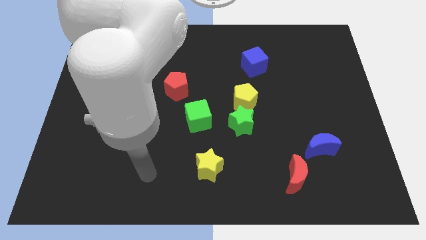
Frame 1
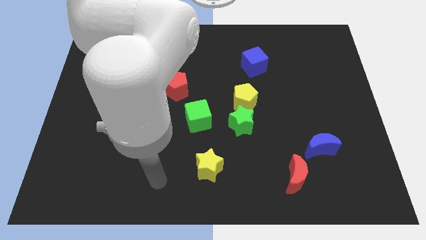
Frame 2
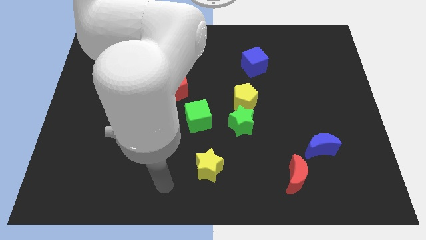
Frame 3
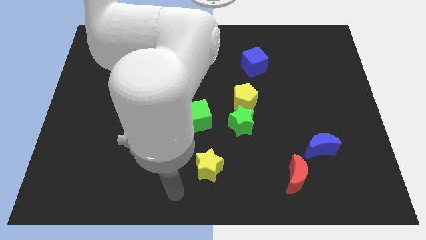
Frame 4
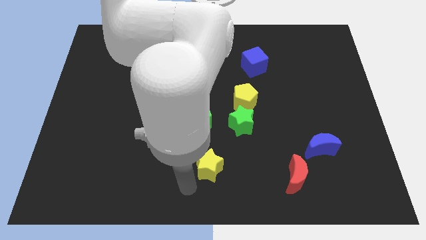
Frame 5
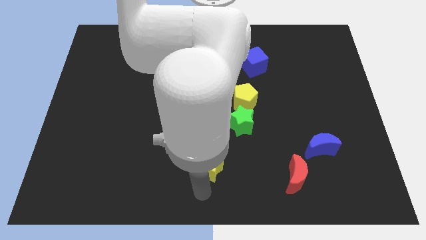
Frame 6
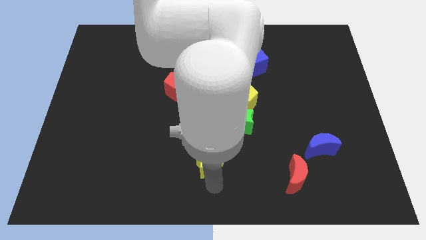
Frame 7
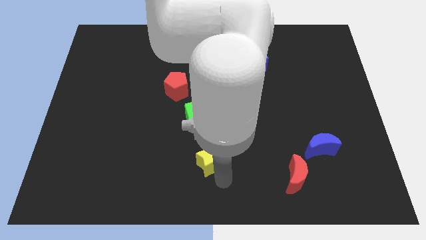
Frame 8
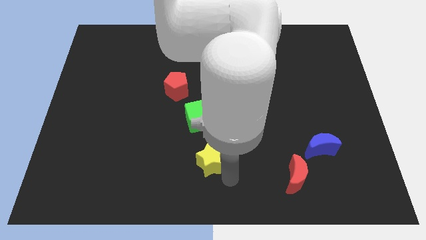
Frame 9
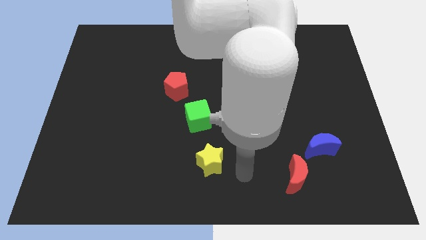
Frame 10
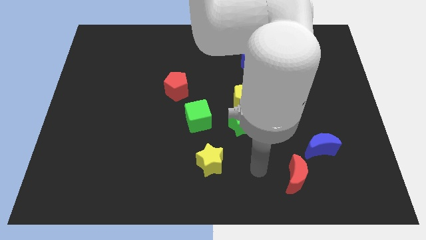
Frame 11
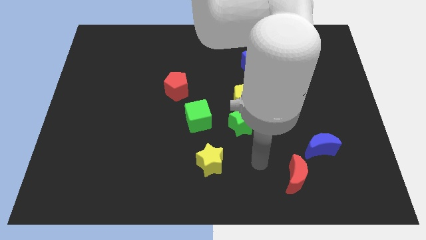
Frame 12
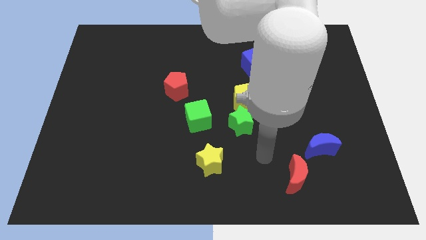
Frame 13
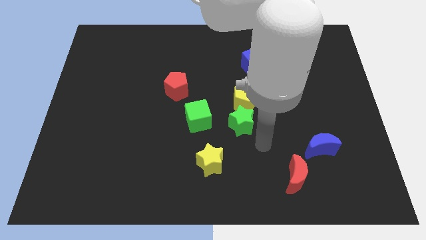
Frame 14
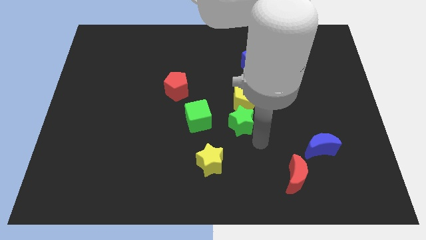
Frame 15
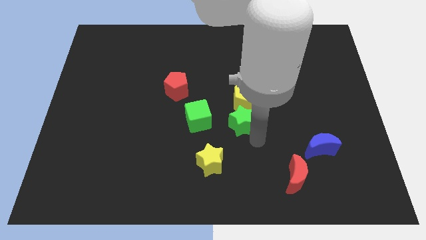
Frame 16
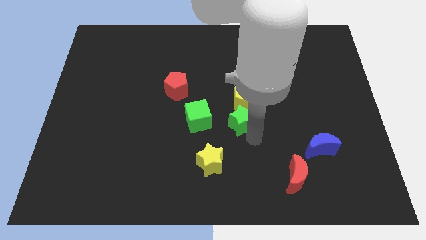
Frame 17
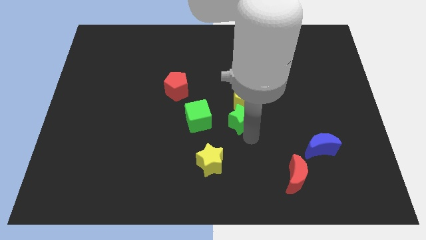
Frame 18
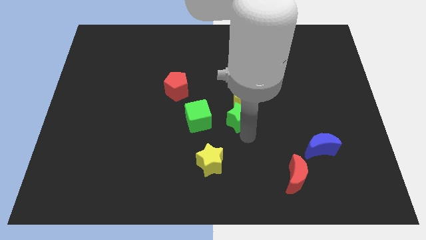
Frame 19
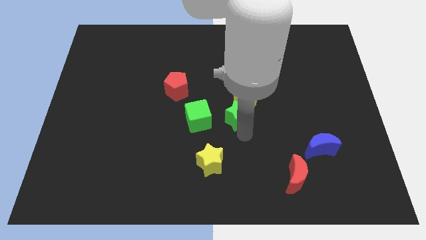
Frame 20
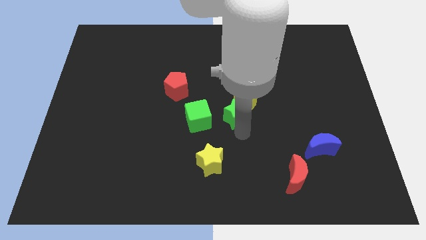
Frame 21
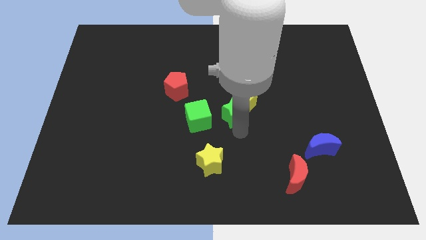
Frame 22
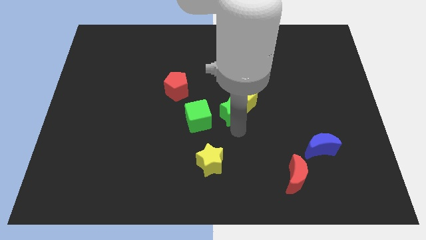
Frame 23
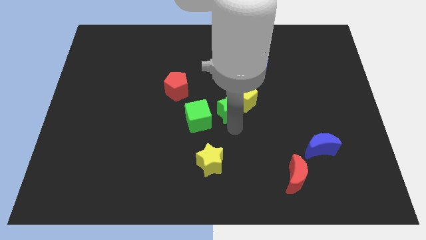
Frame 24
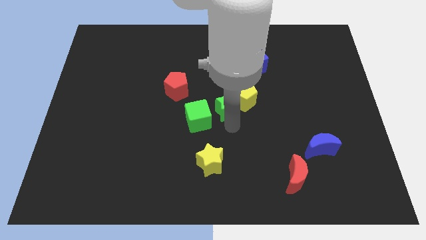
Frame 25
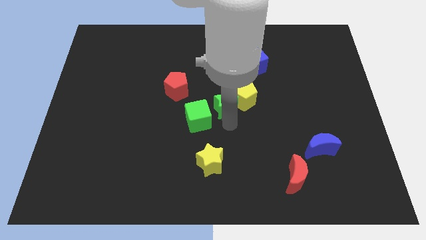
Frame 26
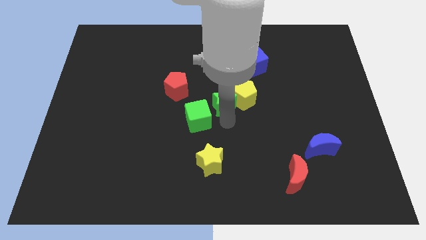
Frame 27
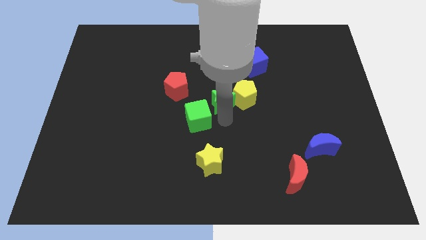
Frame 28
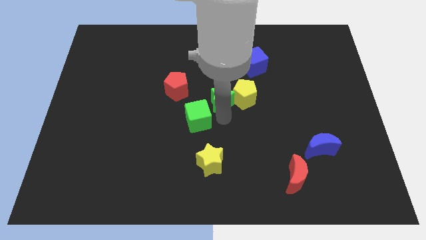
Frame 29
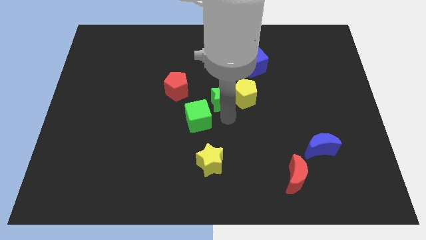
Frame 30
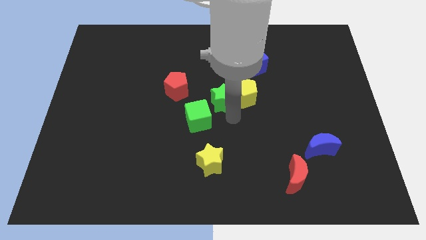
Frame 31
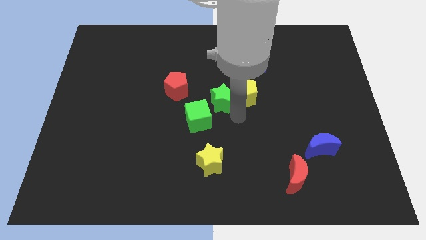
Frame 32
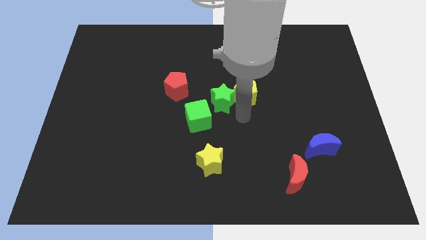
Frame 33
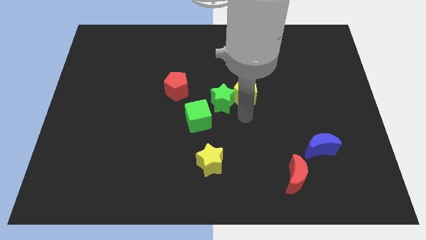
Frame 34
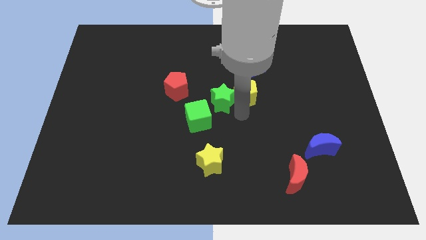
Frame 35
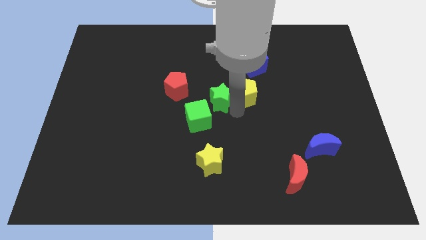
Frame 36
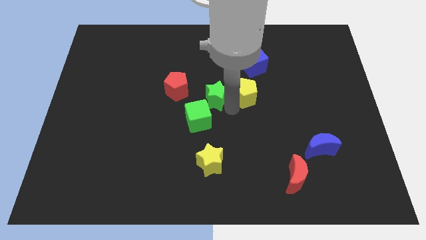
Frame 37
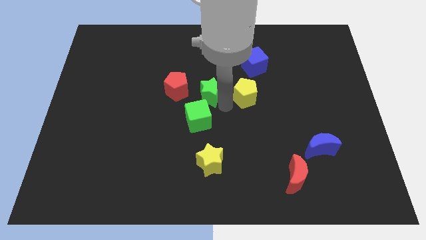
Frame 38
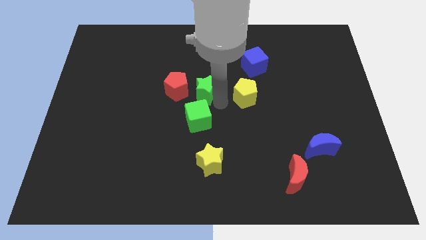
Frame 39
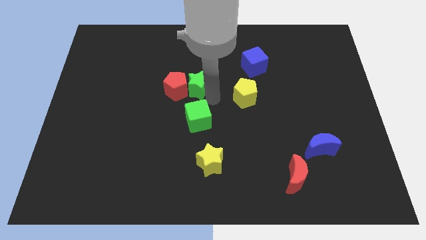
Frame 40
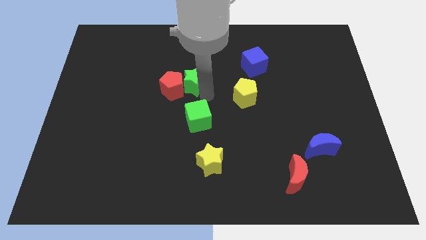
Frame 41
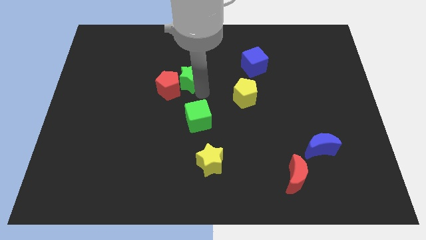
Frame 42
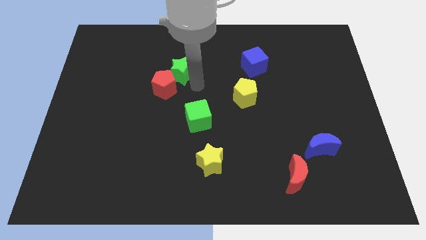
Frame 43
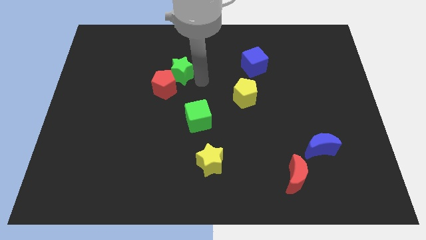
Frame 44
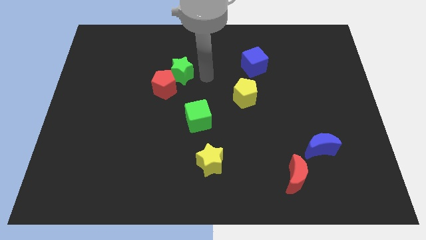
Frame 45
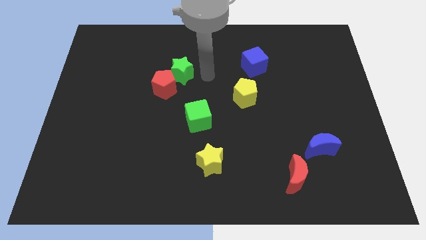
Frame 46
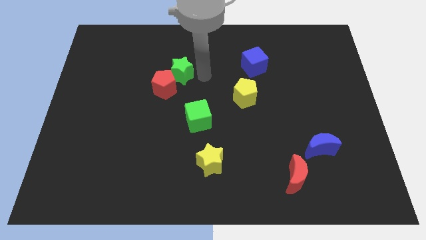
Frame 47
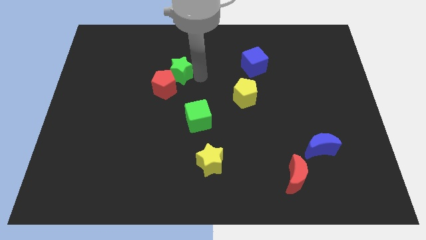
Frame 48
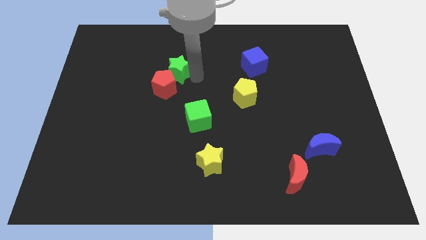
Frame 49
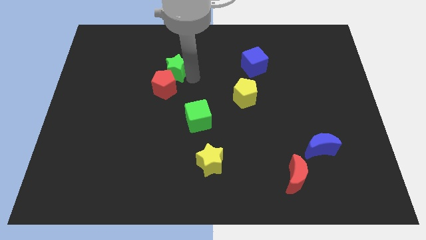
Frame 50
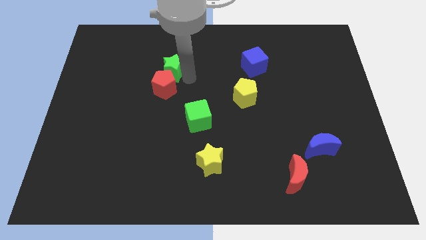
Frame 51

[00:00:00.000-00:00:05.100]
slide the green star to the top left side of the red pentagon

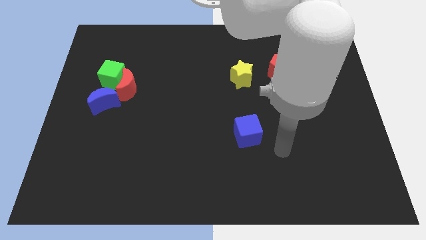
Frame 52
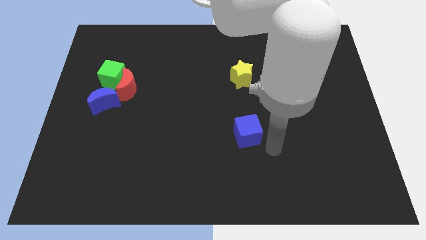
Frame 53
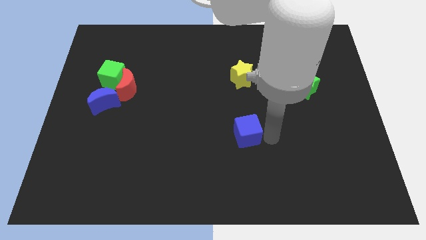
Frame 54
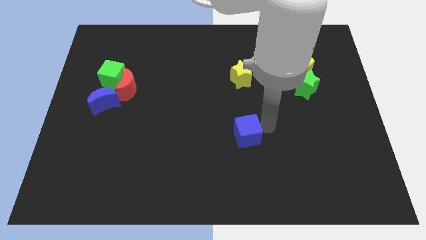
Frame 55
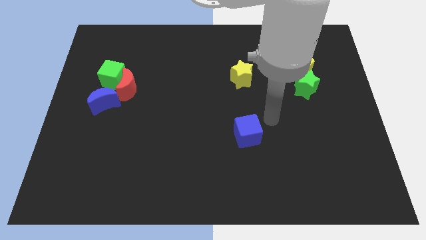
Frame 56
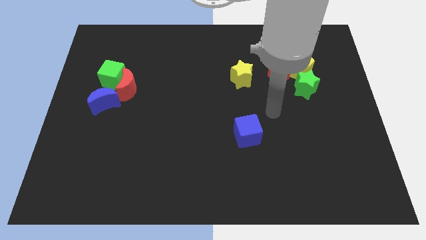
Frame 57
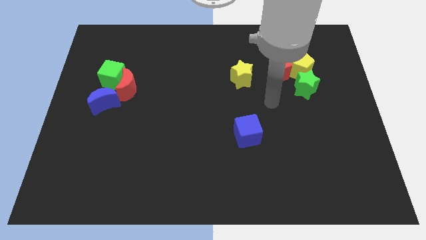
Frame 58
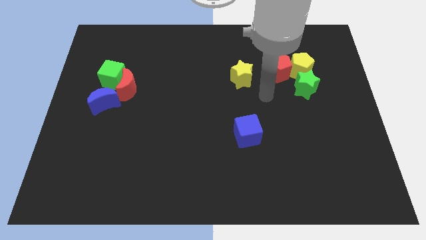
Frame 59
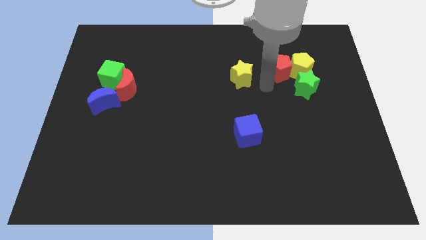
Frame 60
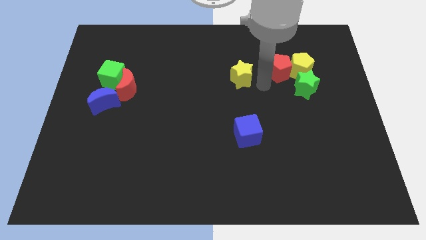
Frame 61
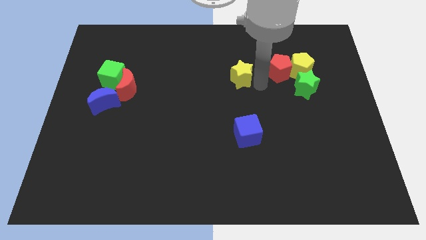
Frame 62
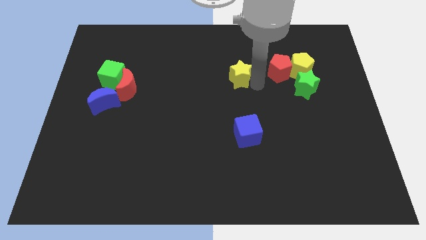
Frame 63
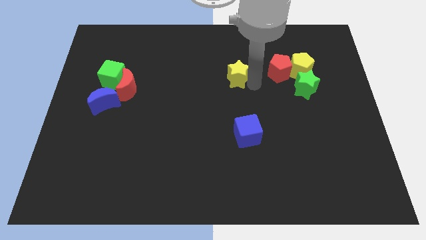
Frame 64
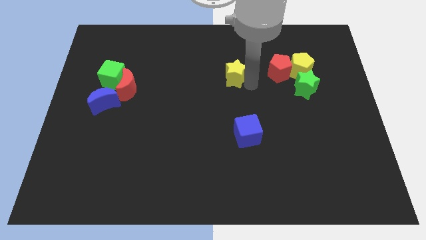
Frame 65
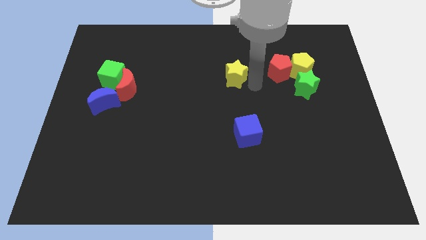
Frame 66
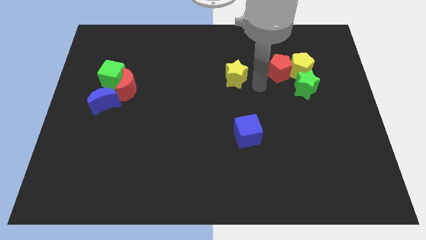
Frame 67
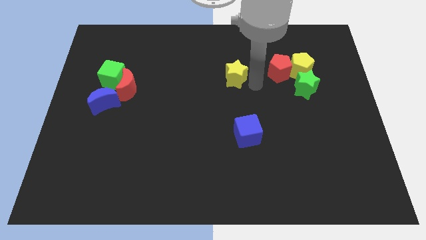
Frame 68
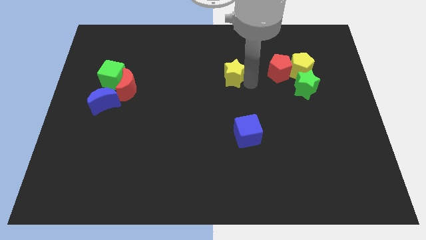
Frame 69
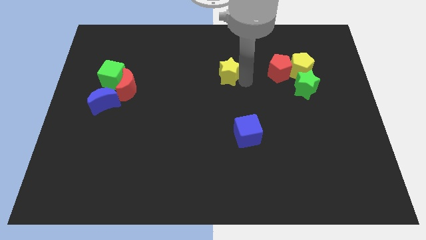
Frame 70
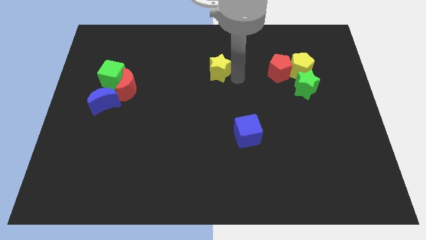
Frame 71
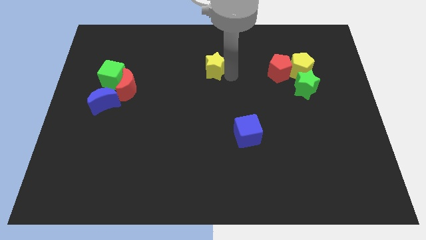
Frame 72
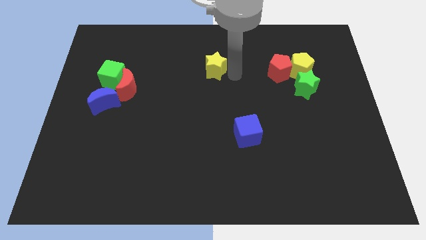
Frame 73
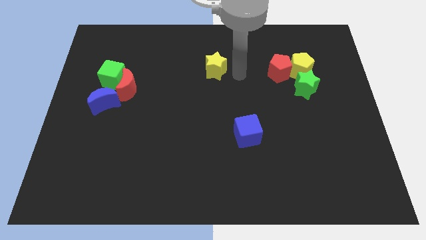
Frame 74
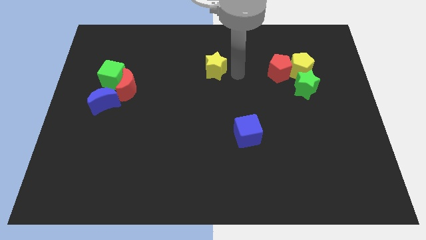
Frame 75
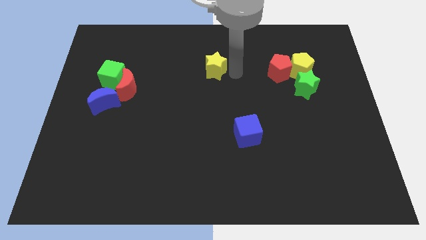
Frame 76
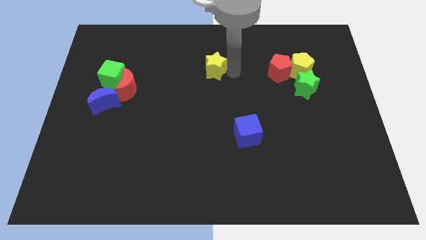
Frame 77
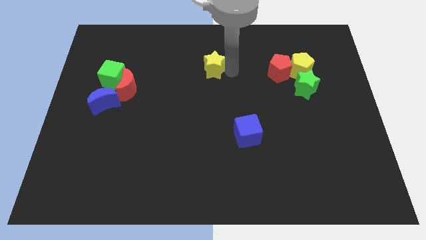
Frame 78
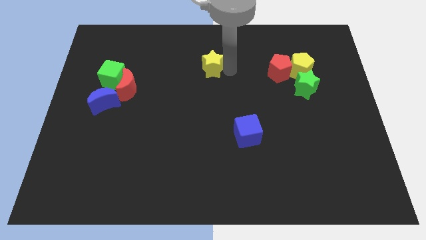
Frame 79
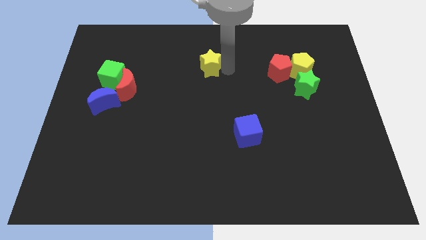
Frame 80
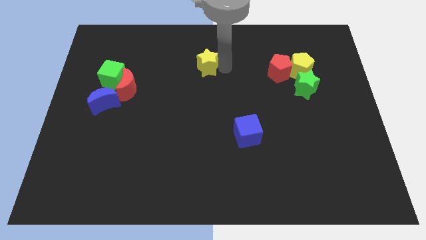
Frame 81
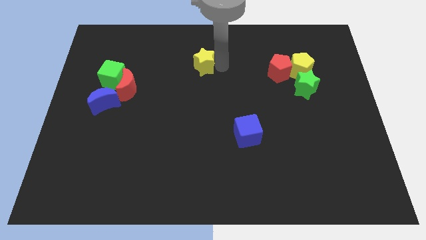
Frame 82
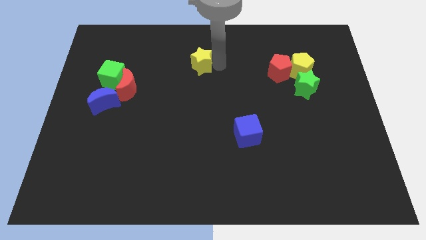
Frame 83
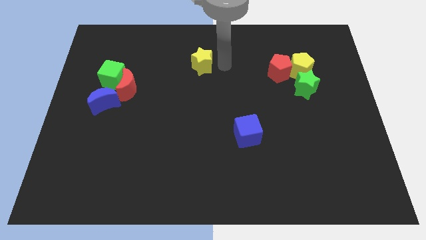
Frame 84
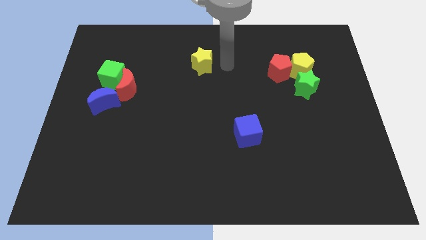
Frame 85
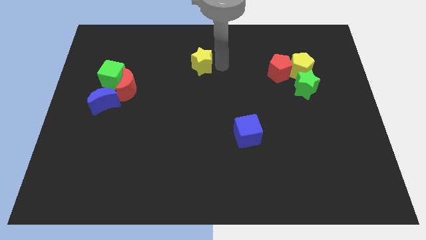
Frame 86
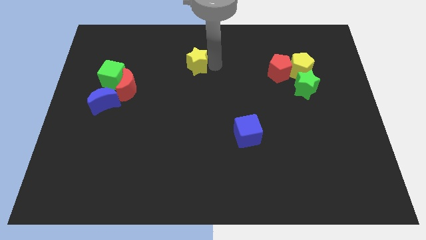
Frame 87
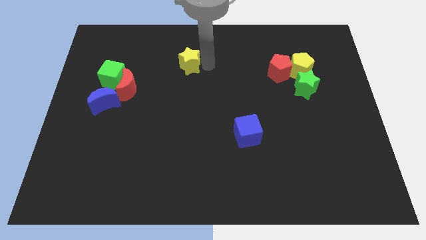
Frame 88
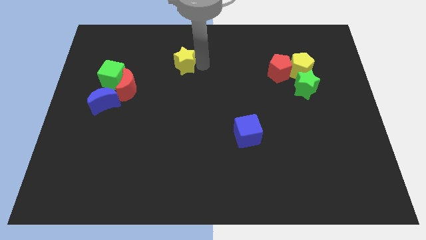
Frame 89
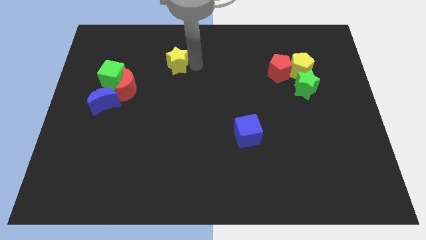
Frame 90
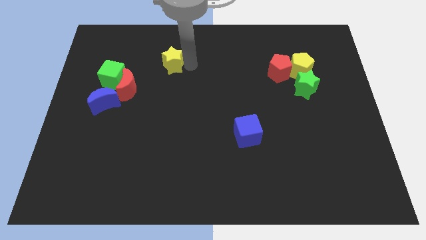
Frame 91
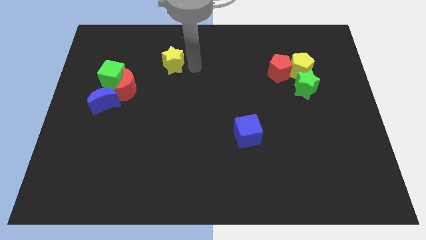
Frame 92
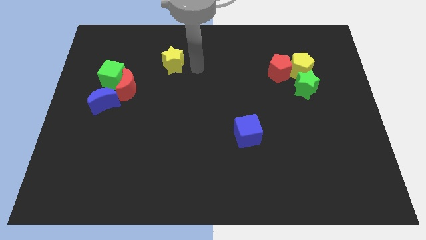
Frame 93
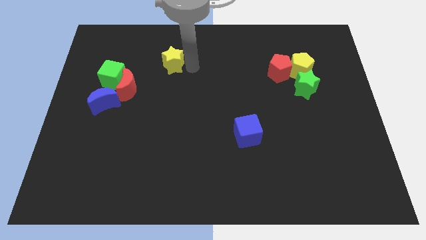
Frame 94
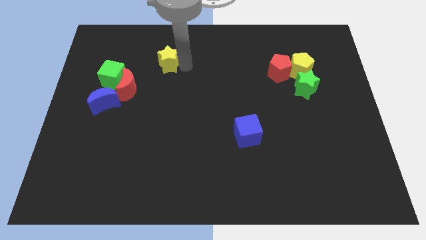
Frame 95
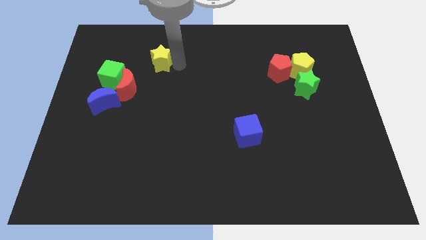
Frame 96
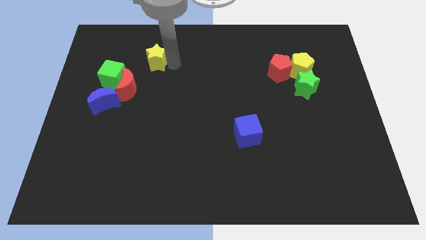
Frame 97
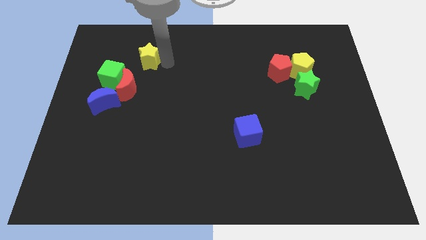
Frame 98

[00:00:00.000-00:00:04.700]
move the yellow star to the top of the red moon
